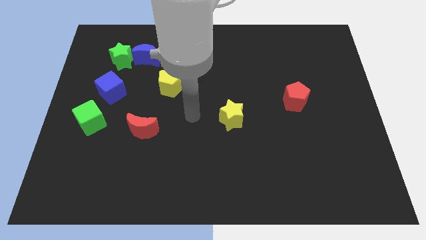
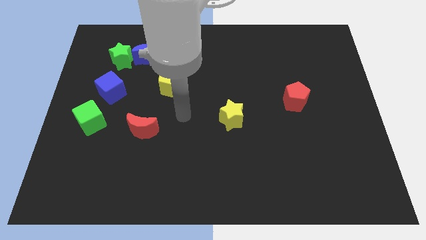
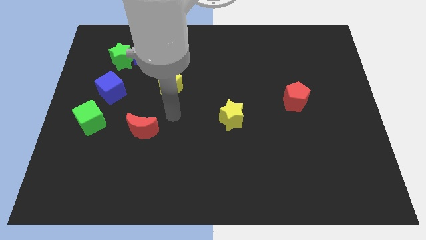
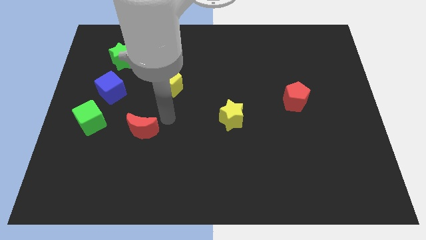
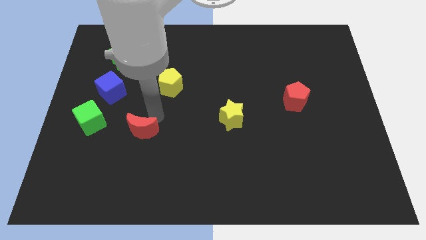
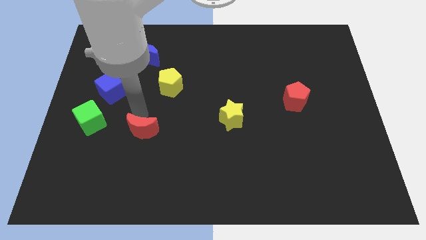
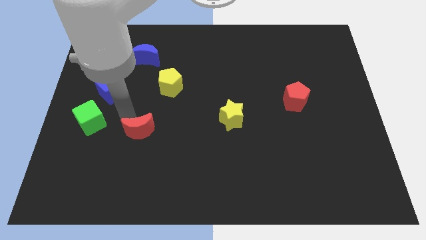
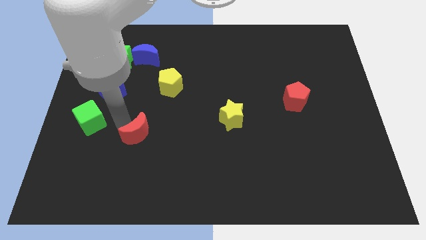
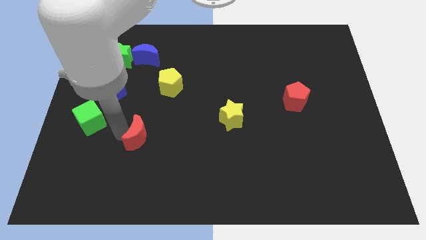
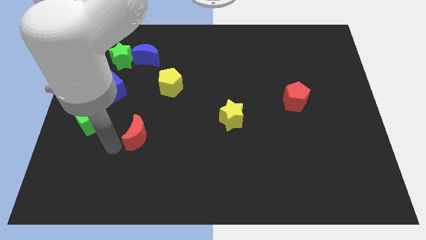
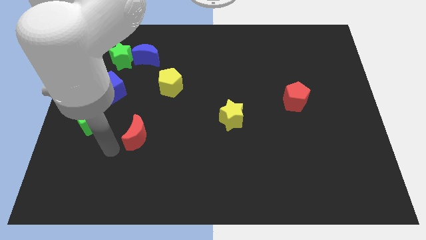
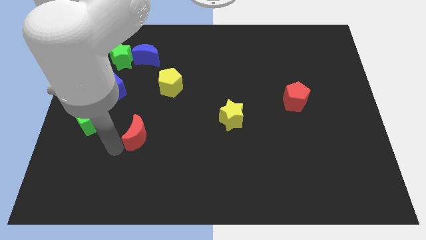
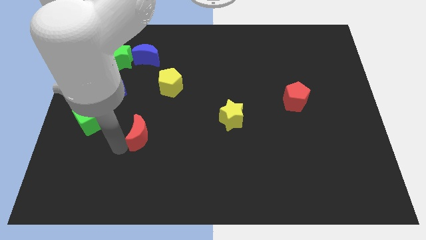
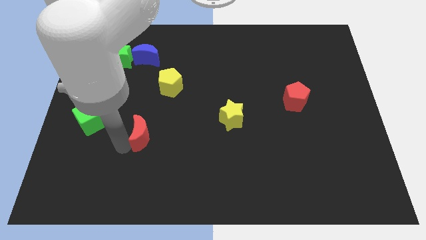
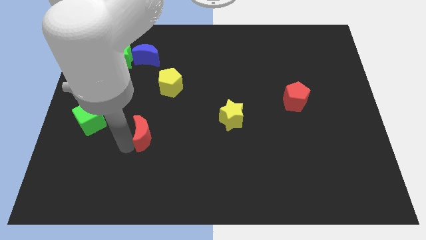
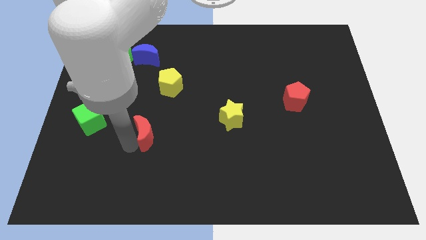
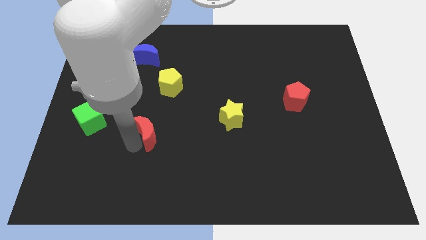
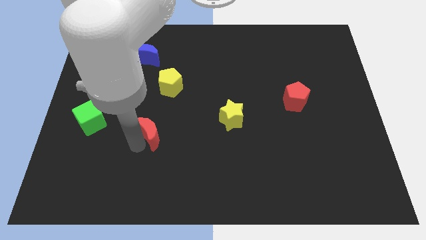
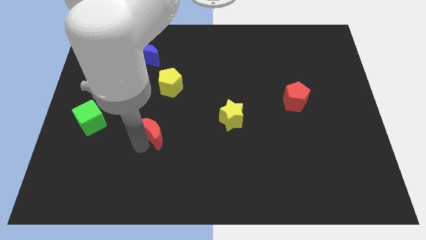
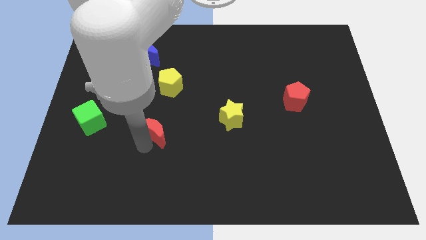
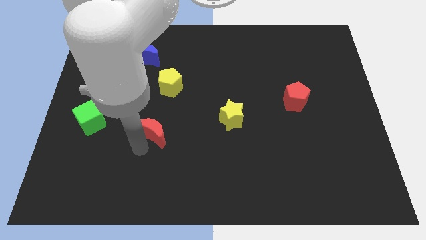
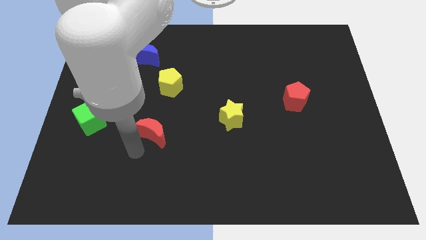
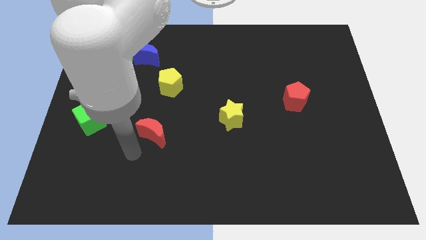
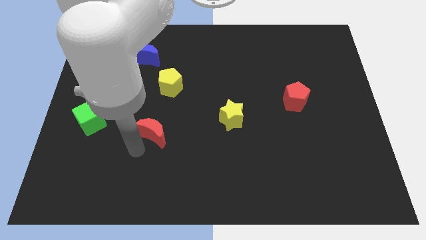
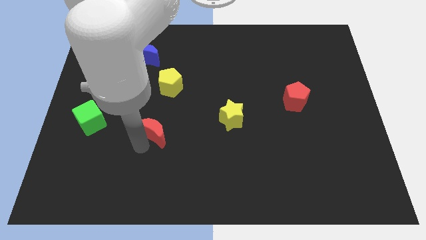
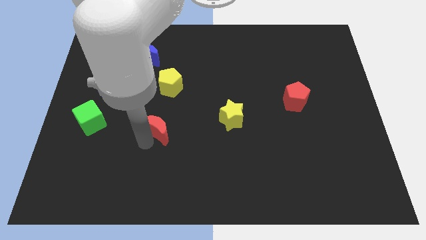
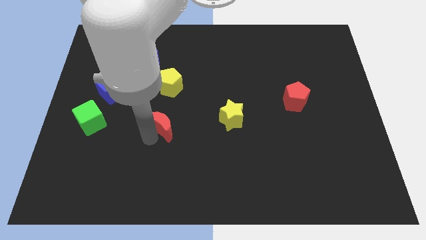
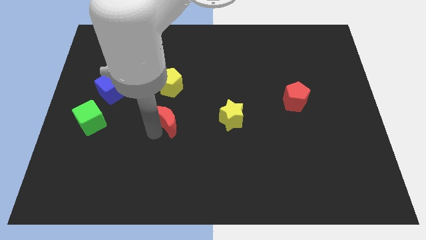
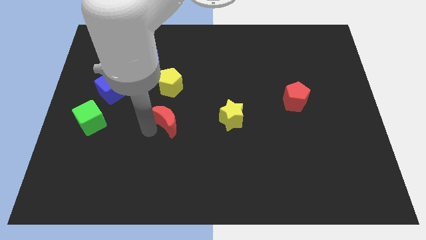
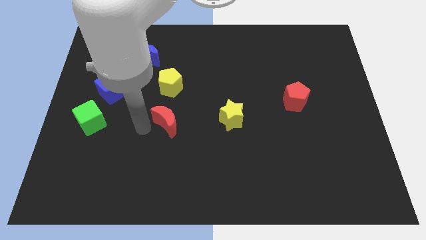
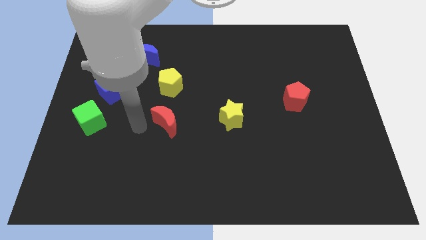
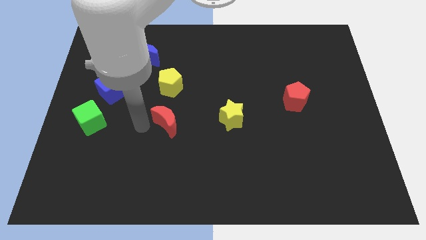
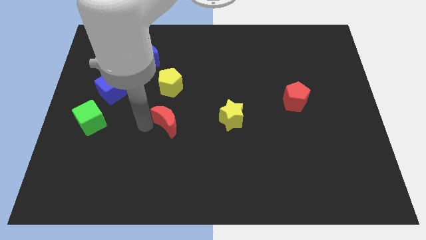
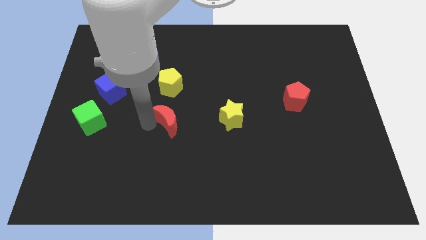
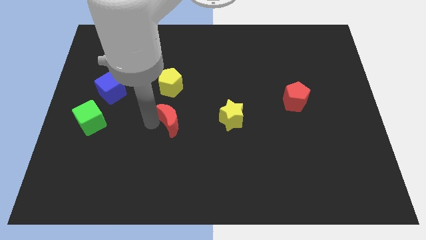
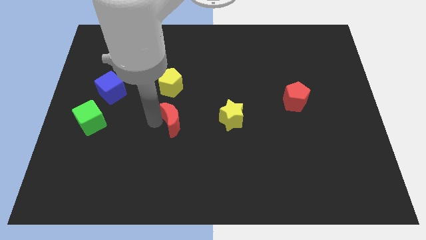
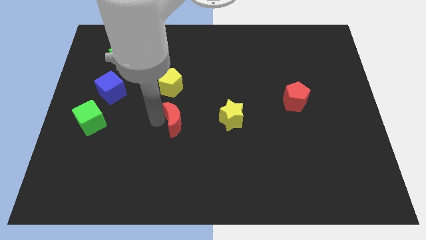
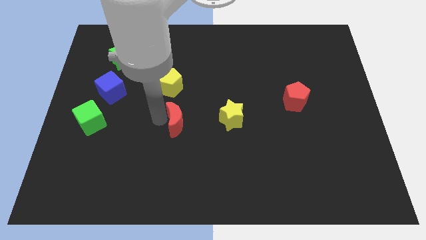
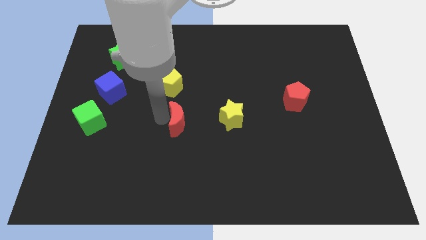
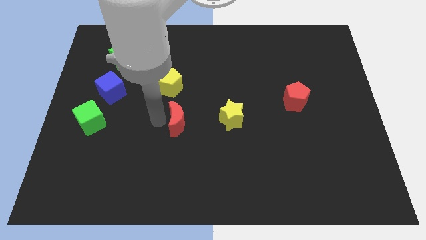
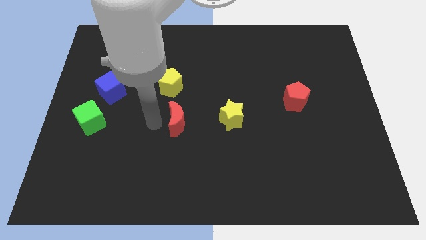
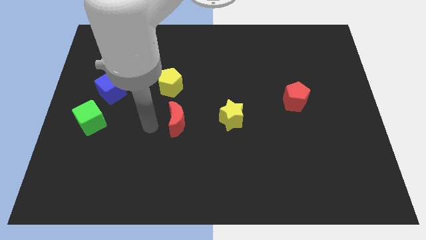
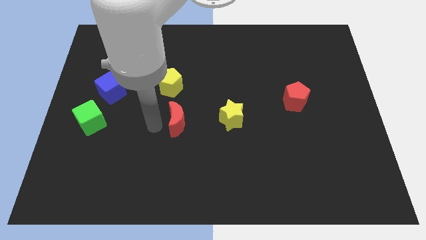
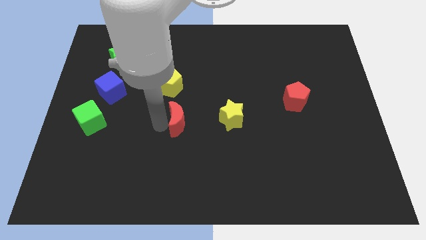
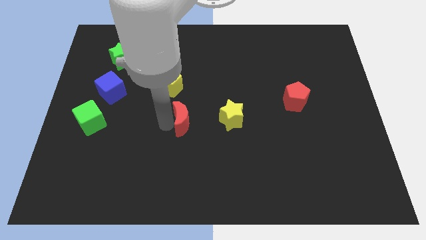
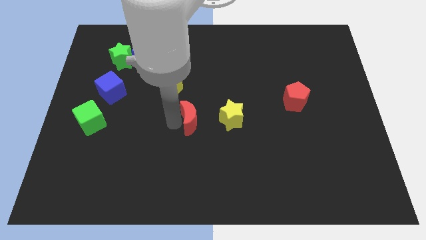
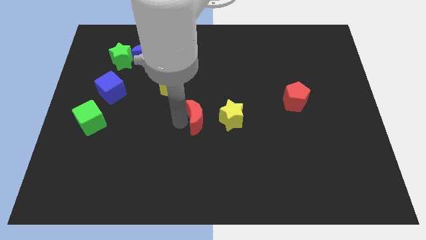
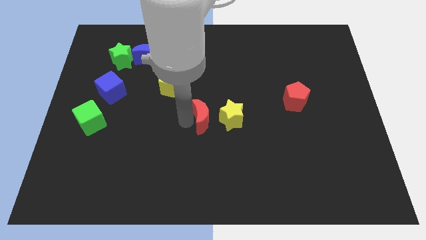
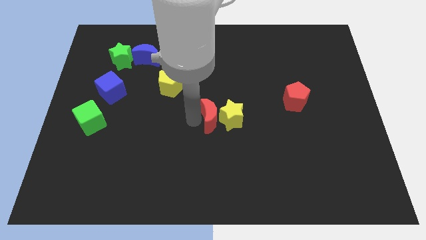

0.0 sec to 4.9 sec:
move the red moon next to the yellow star

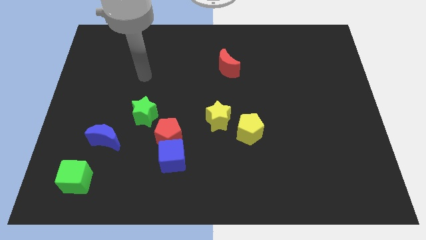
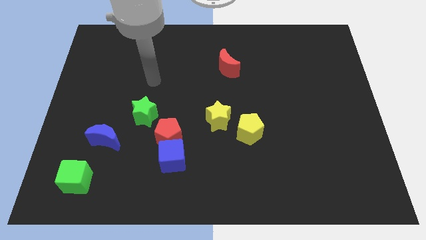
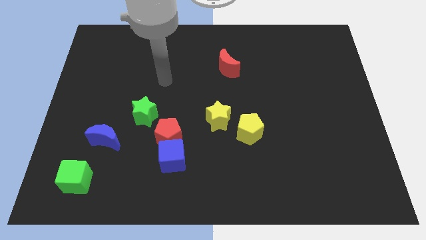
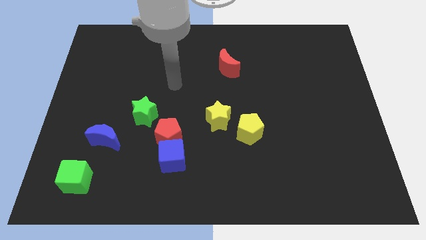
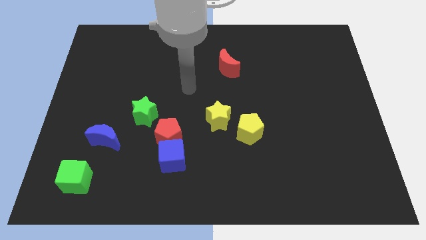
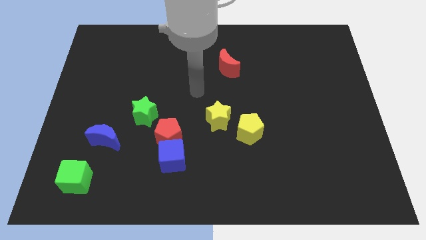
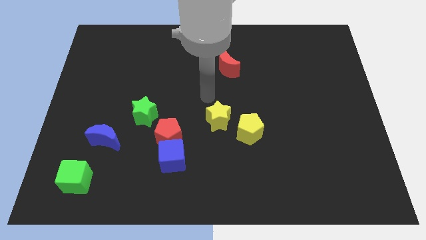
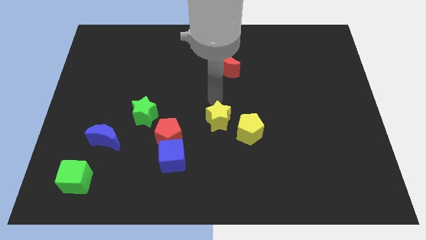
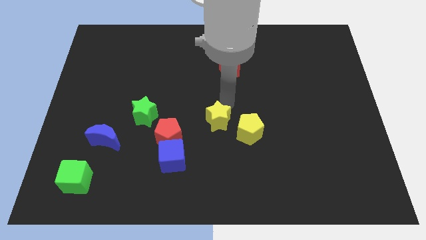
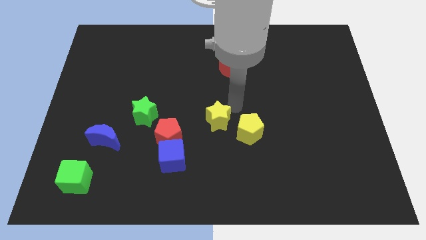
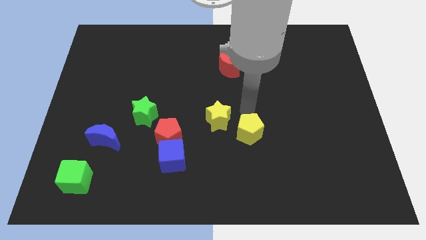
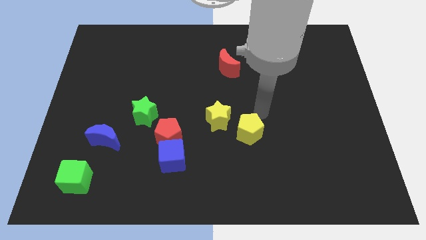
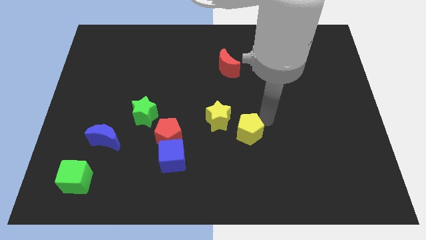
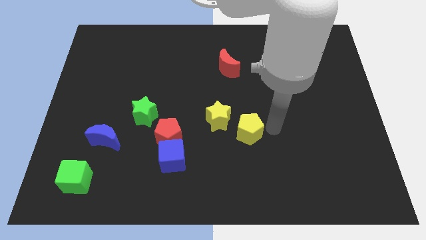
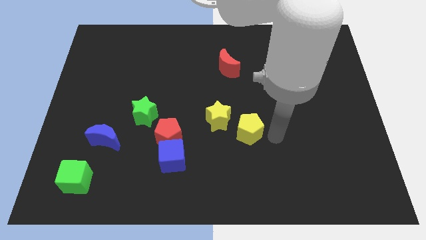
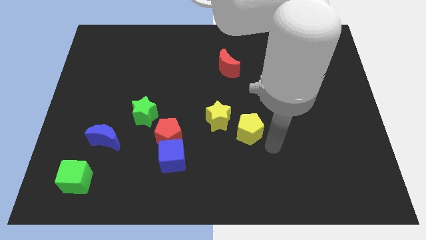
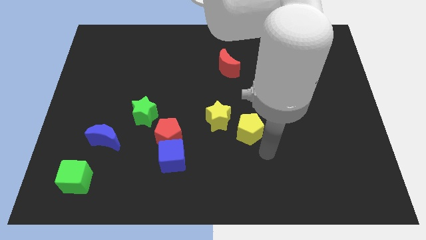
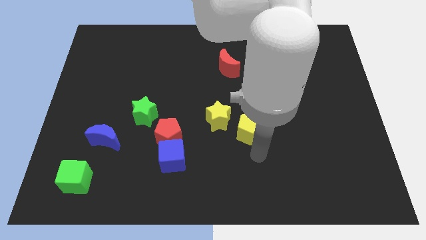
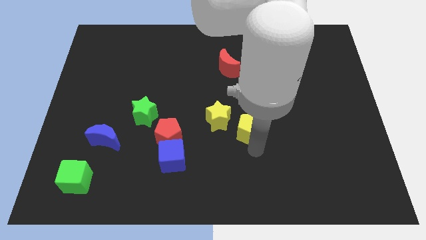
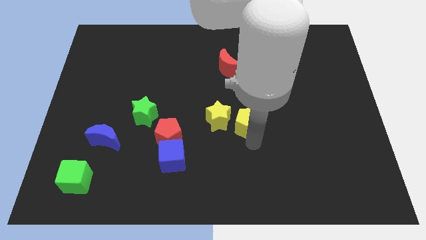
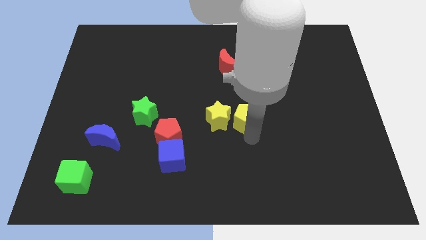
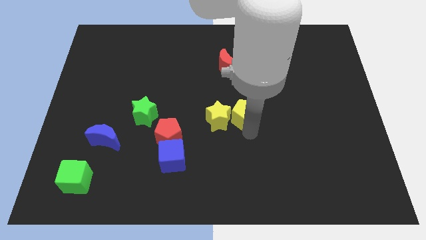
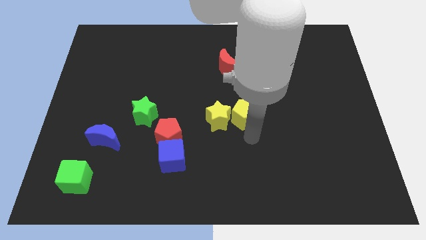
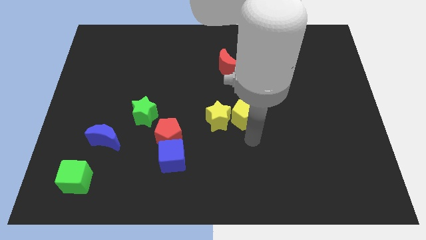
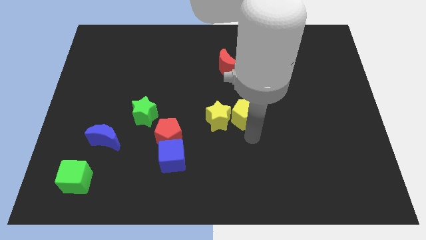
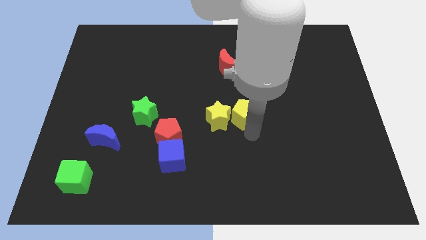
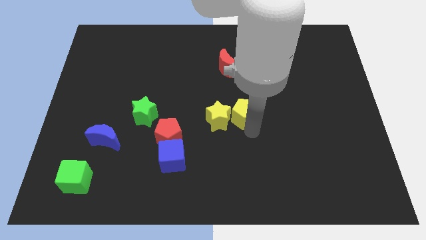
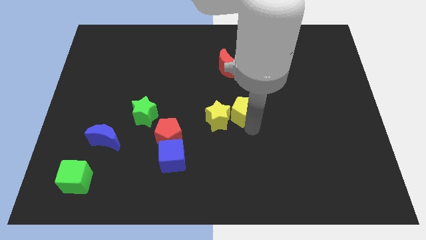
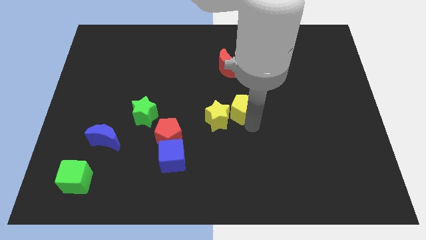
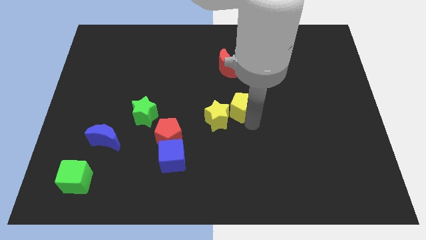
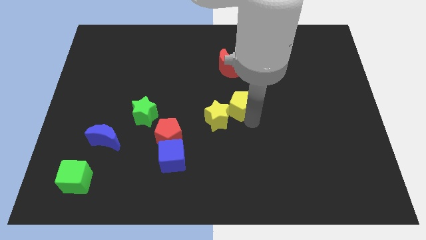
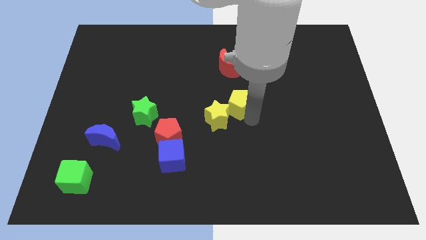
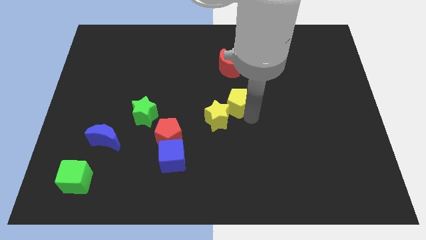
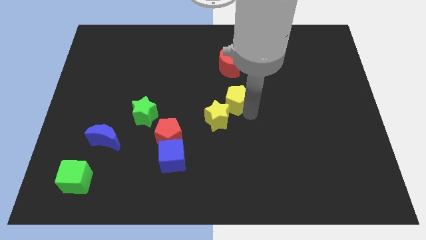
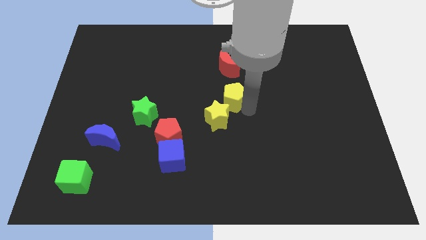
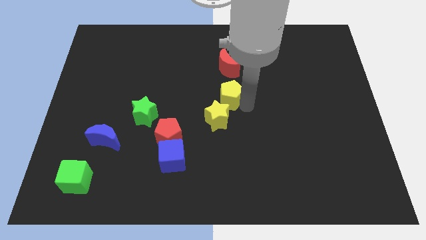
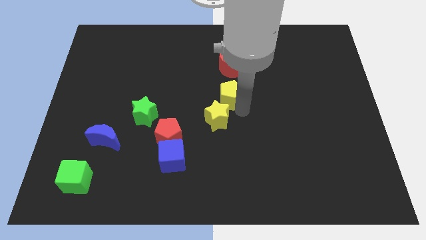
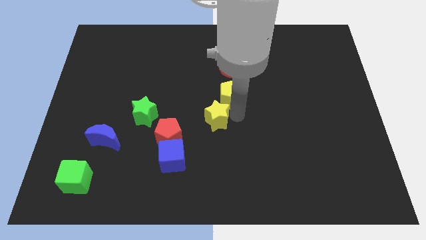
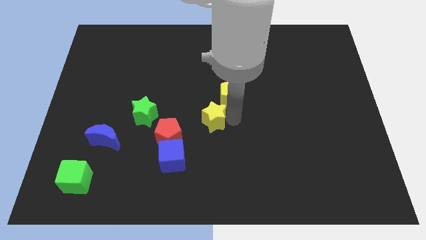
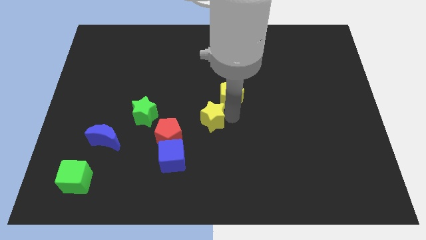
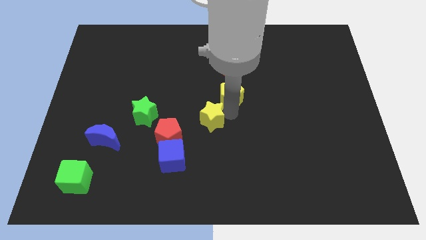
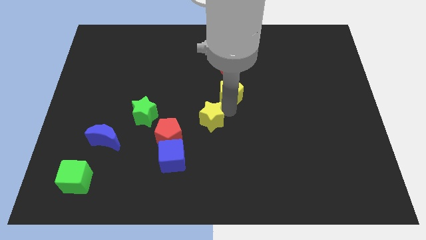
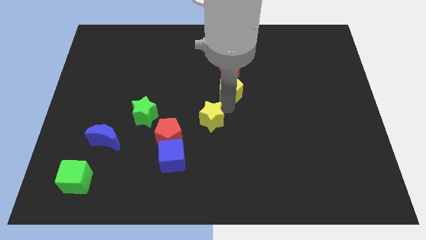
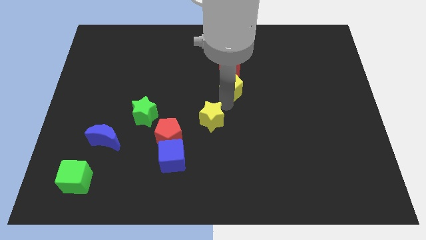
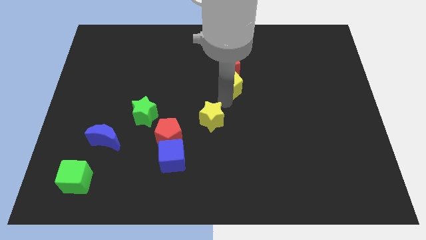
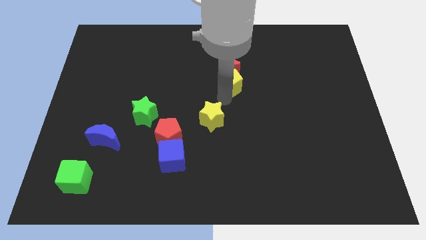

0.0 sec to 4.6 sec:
put the yellow pentagon next to the red moon
